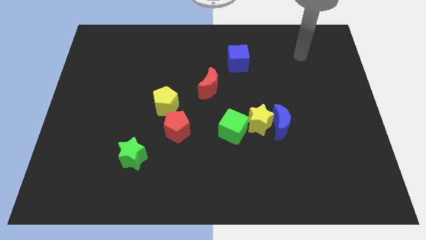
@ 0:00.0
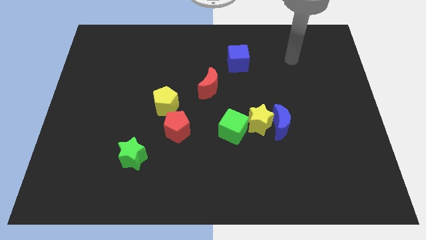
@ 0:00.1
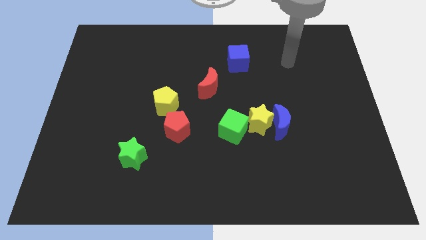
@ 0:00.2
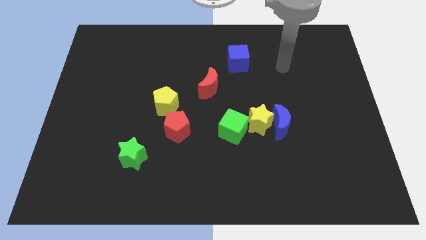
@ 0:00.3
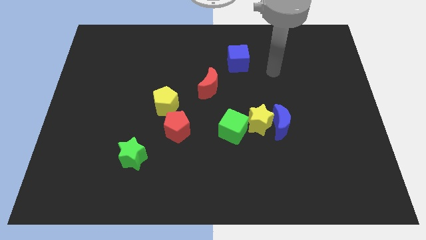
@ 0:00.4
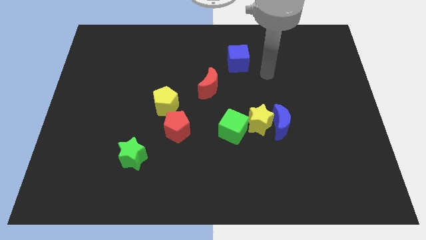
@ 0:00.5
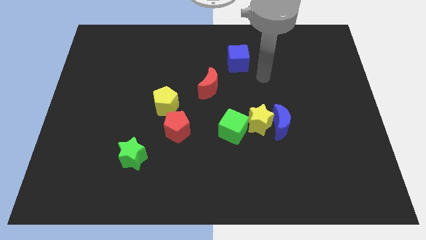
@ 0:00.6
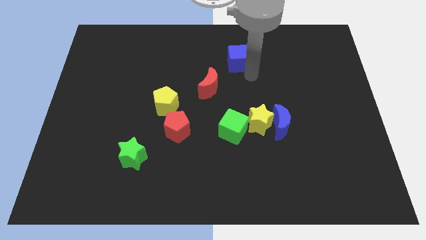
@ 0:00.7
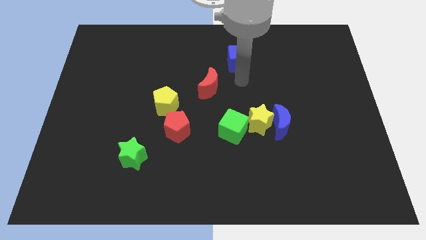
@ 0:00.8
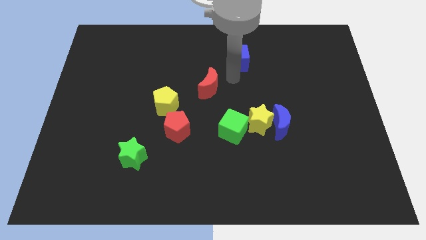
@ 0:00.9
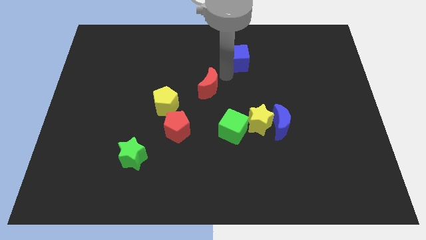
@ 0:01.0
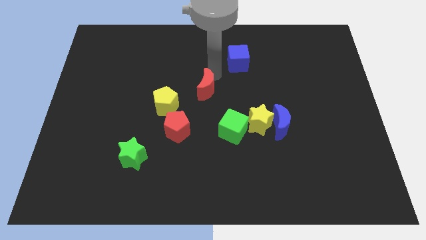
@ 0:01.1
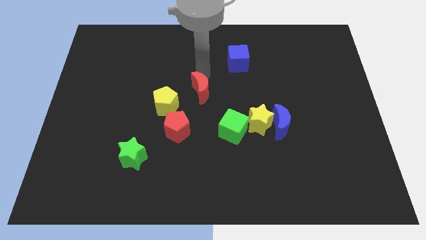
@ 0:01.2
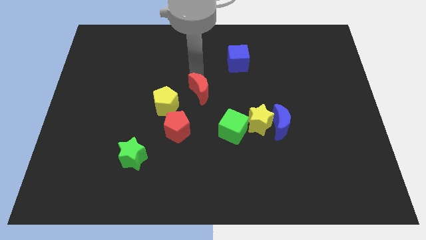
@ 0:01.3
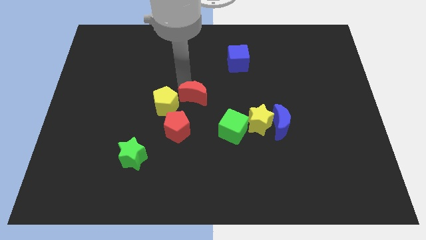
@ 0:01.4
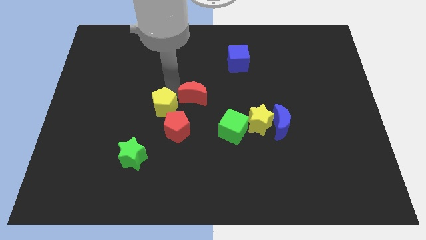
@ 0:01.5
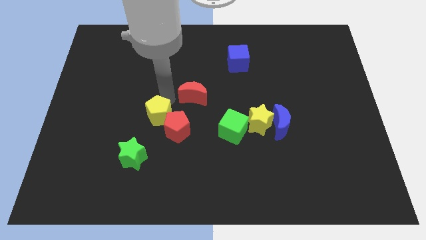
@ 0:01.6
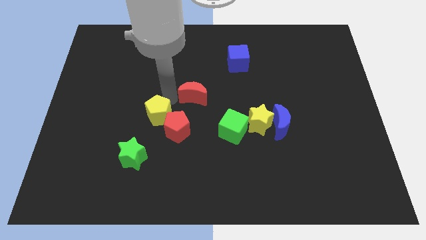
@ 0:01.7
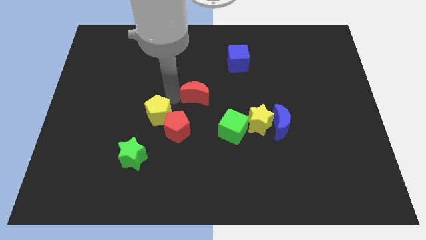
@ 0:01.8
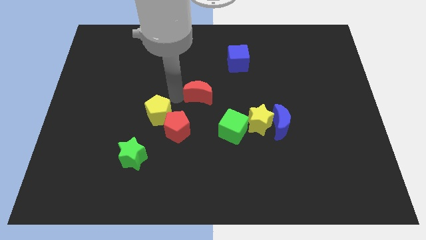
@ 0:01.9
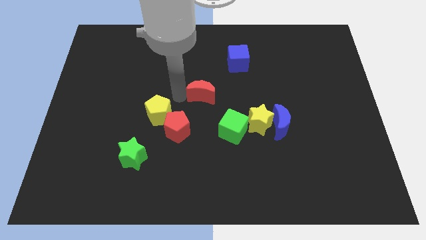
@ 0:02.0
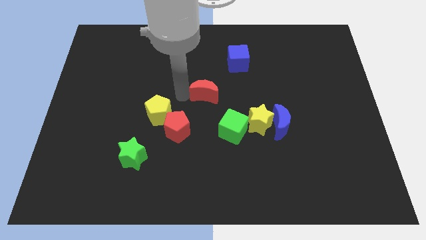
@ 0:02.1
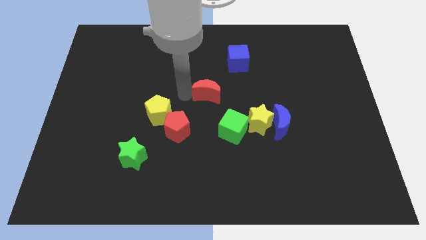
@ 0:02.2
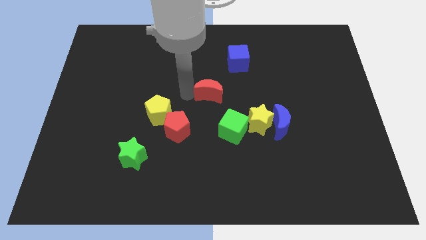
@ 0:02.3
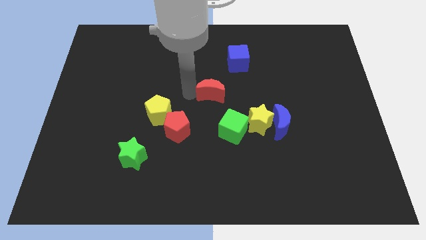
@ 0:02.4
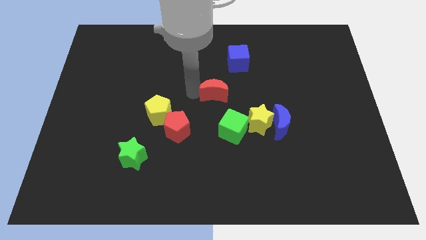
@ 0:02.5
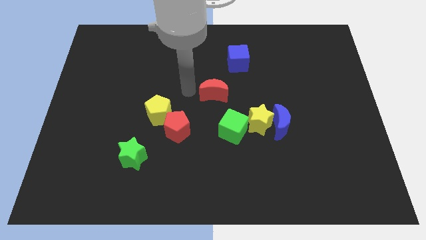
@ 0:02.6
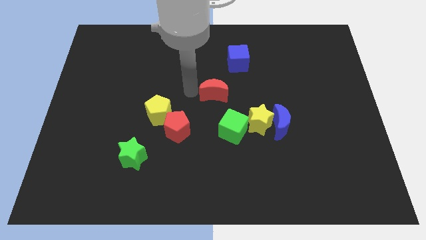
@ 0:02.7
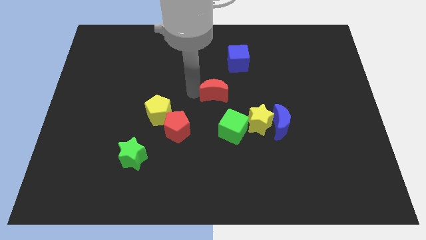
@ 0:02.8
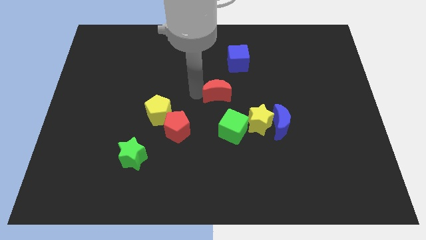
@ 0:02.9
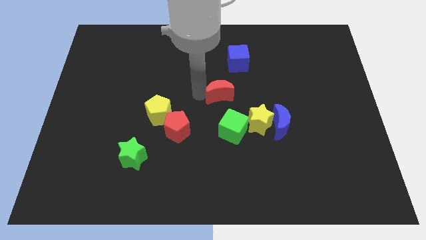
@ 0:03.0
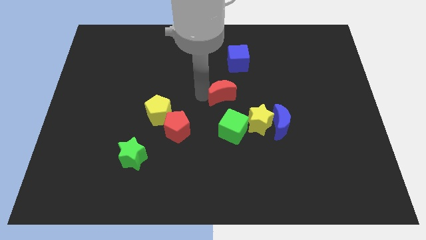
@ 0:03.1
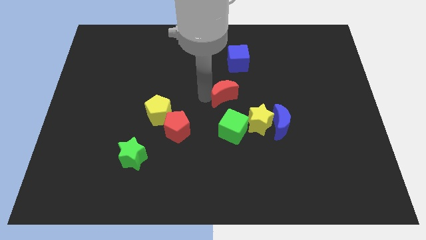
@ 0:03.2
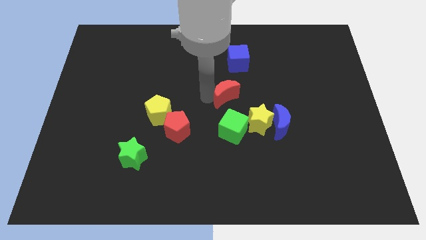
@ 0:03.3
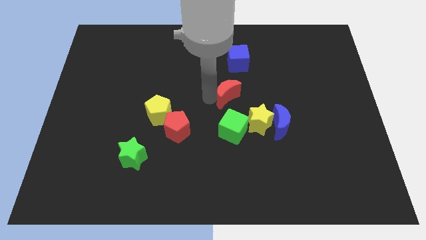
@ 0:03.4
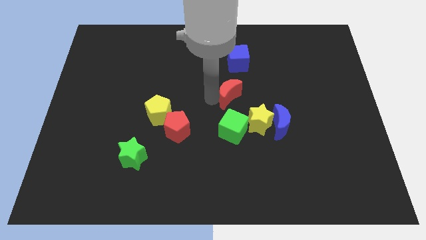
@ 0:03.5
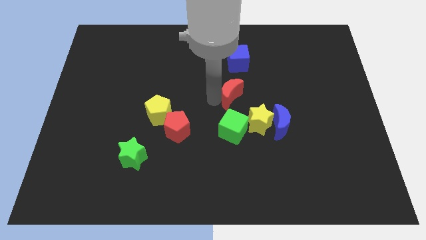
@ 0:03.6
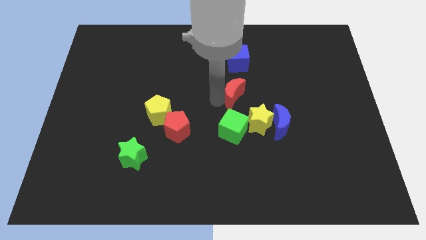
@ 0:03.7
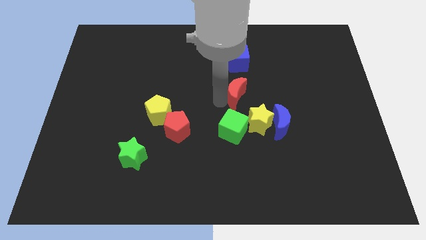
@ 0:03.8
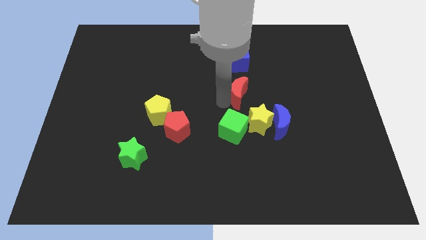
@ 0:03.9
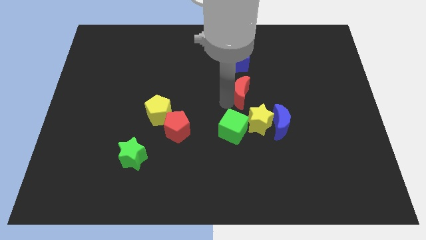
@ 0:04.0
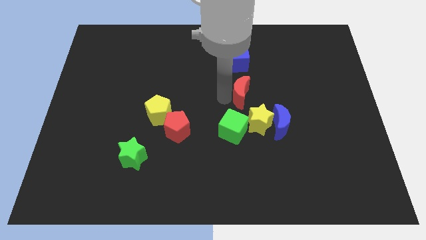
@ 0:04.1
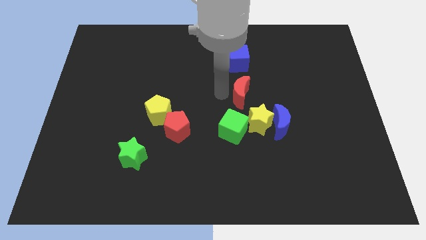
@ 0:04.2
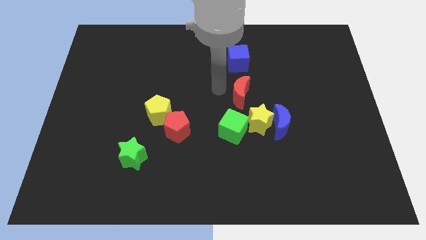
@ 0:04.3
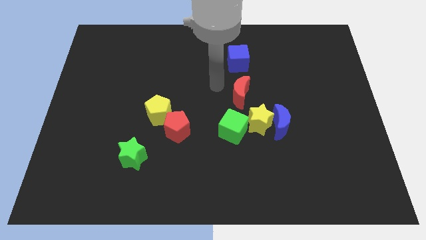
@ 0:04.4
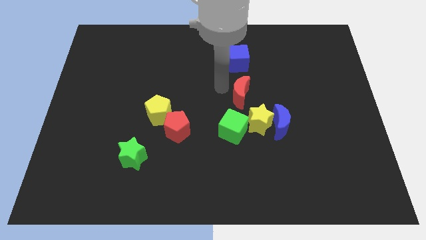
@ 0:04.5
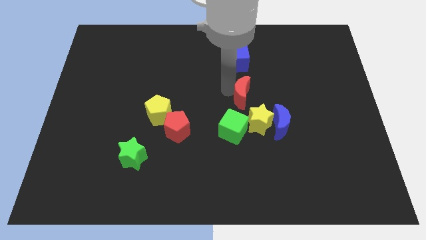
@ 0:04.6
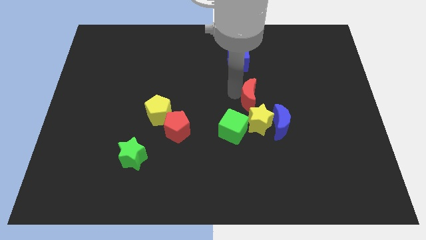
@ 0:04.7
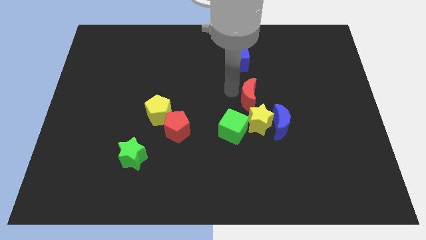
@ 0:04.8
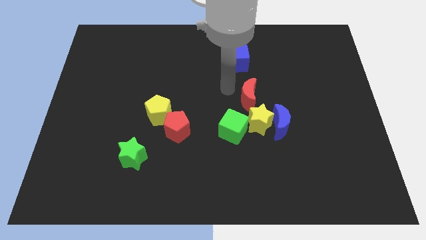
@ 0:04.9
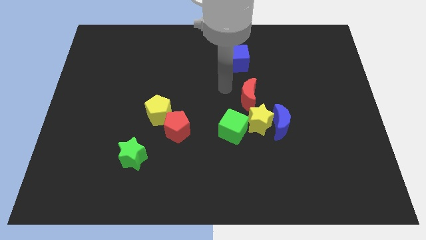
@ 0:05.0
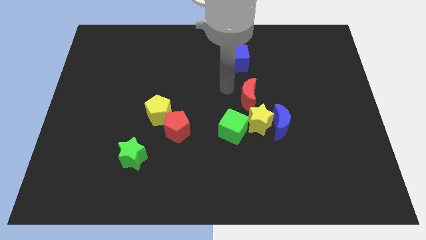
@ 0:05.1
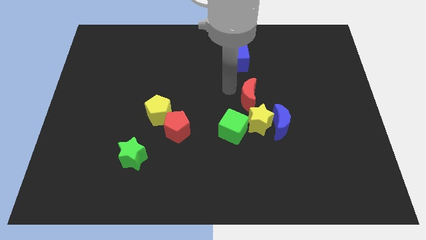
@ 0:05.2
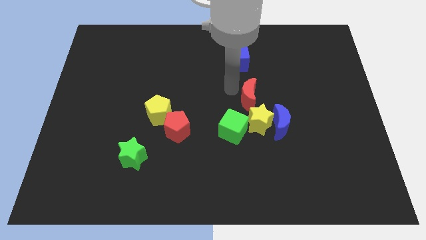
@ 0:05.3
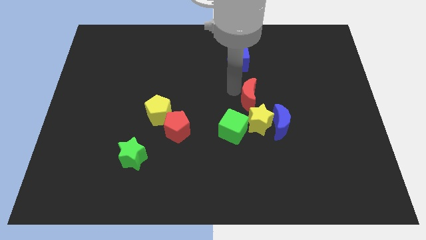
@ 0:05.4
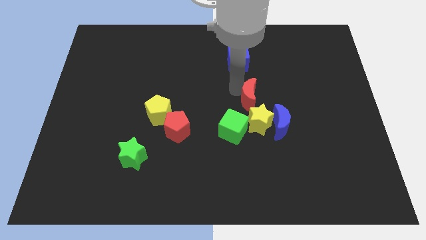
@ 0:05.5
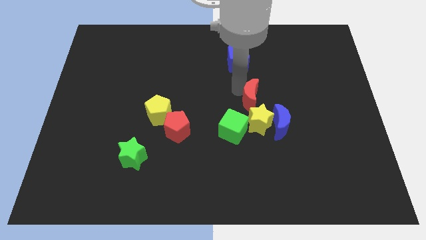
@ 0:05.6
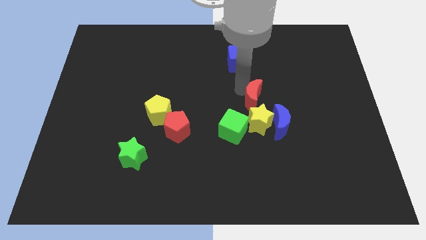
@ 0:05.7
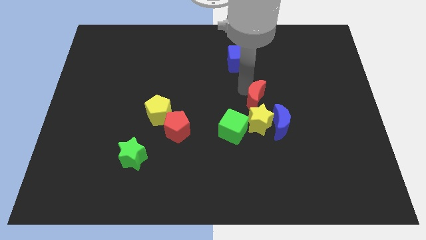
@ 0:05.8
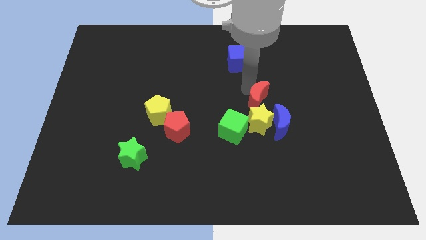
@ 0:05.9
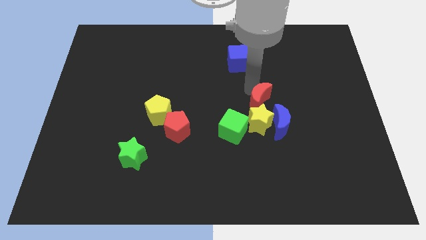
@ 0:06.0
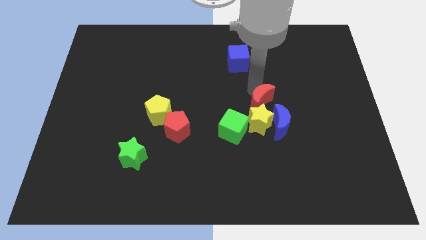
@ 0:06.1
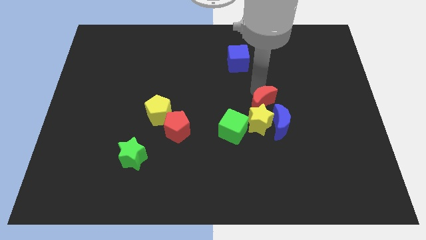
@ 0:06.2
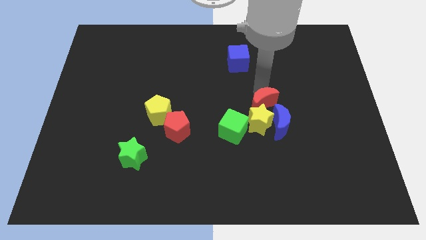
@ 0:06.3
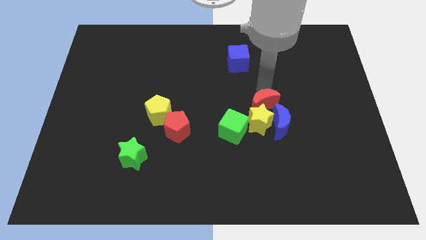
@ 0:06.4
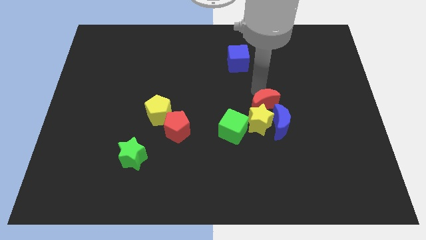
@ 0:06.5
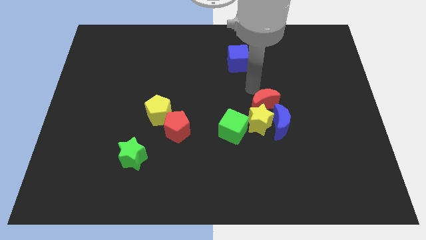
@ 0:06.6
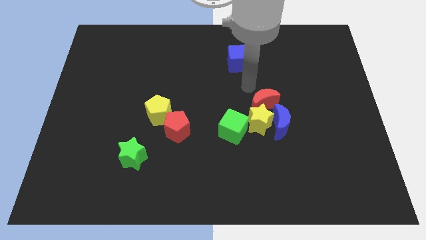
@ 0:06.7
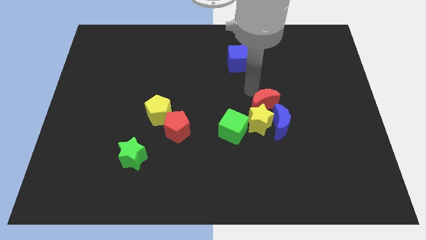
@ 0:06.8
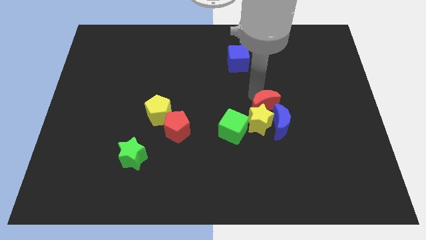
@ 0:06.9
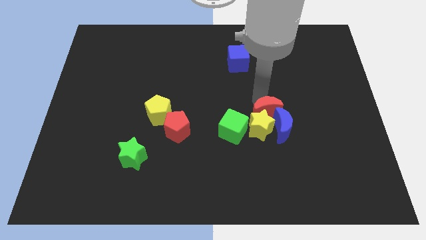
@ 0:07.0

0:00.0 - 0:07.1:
push the red moon next to the blue moon
